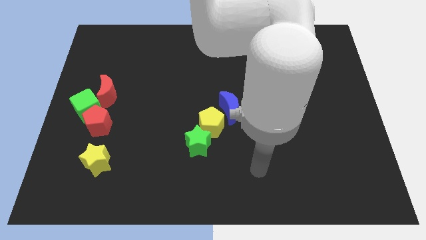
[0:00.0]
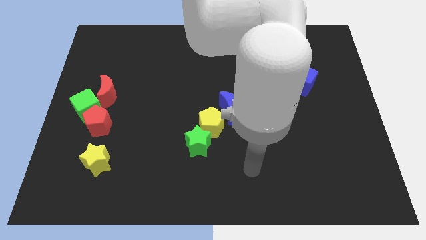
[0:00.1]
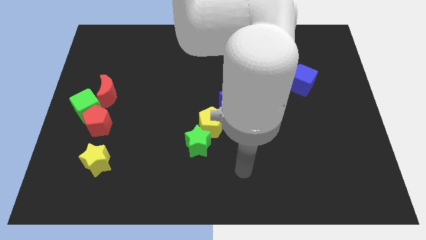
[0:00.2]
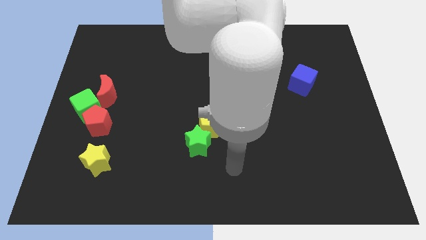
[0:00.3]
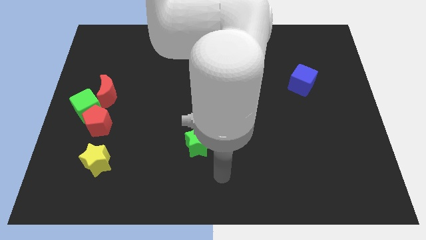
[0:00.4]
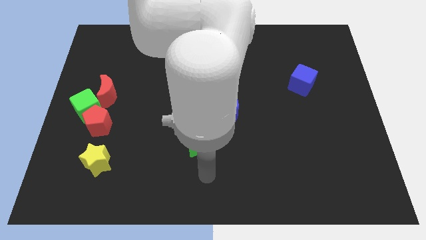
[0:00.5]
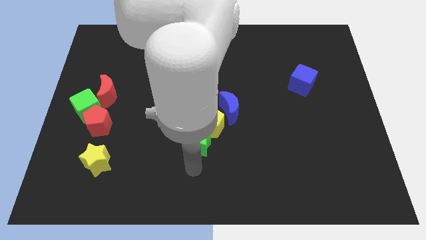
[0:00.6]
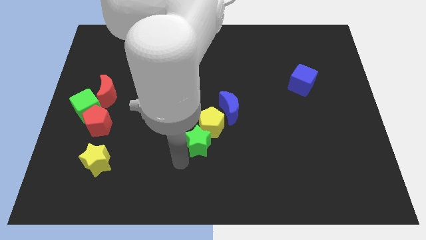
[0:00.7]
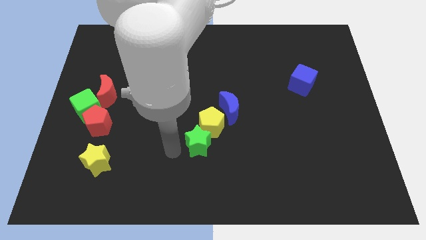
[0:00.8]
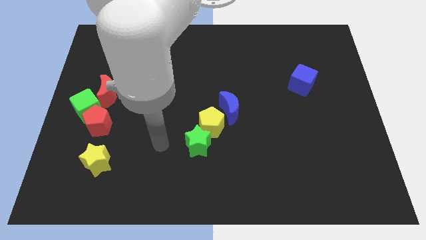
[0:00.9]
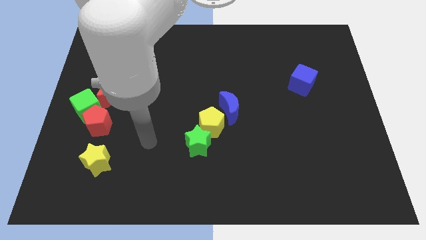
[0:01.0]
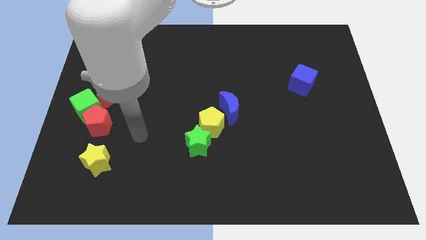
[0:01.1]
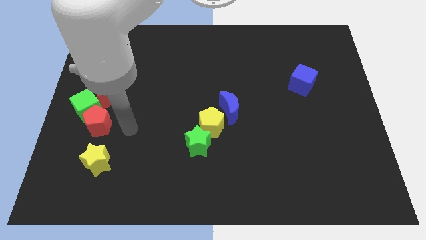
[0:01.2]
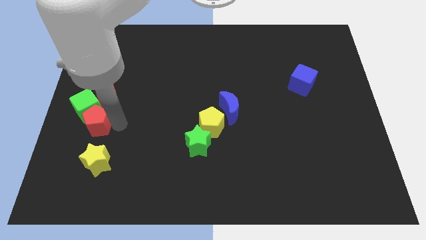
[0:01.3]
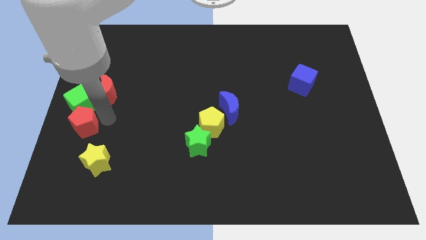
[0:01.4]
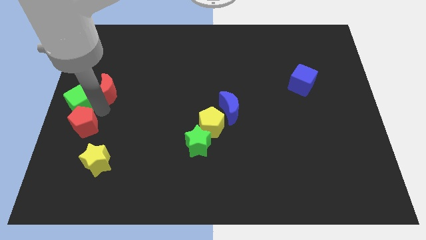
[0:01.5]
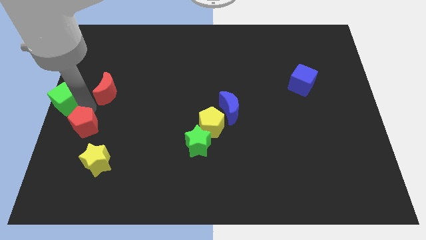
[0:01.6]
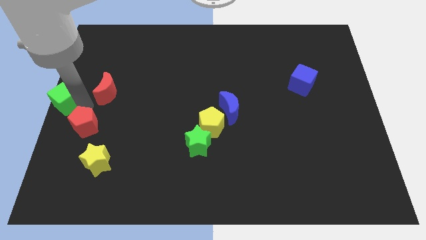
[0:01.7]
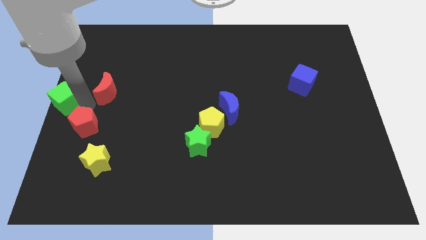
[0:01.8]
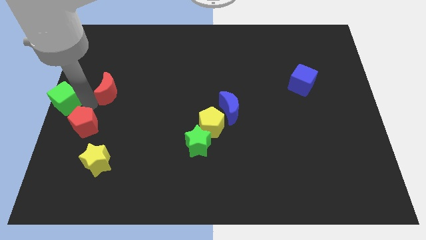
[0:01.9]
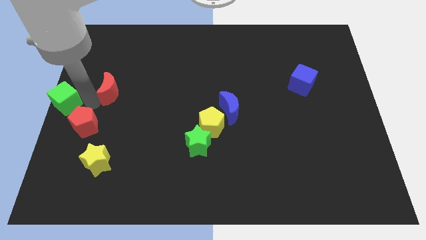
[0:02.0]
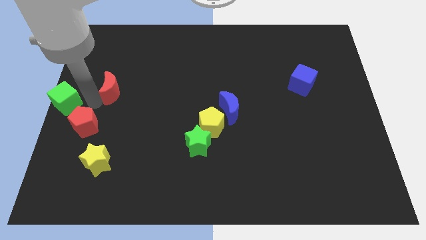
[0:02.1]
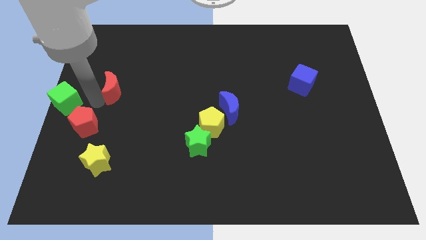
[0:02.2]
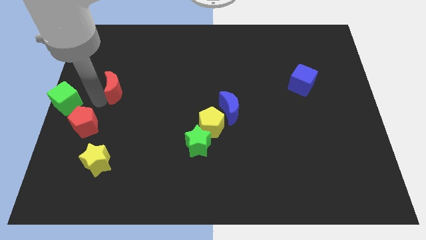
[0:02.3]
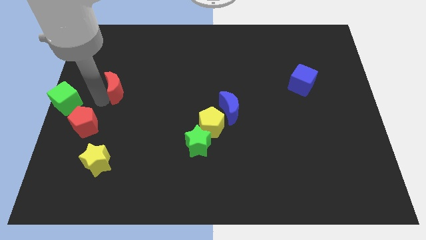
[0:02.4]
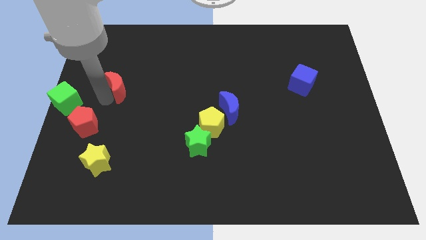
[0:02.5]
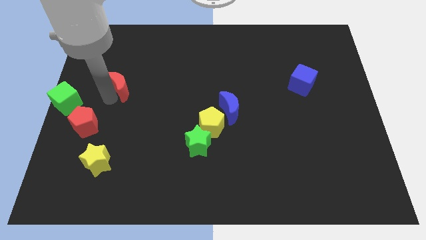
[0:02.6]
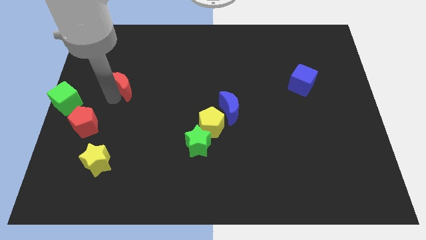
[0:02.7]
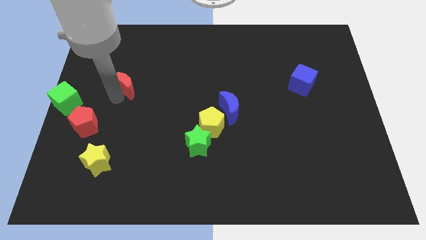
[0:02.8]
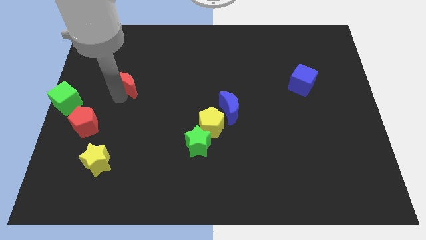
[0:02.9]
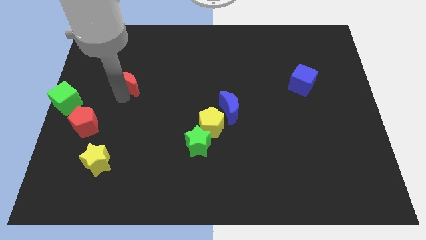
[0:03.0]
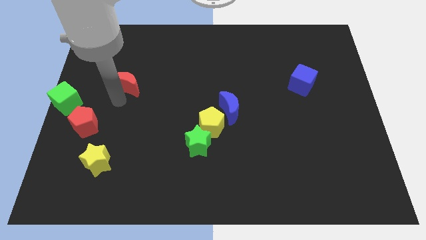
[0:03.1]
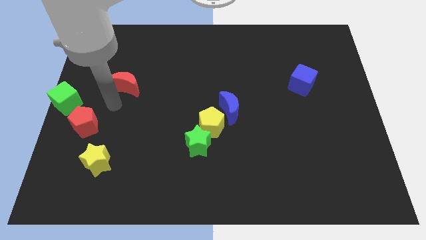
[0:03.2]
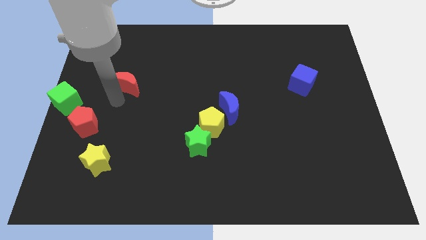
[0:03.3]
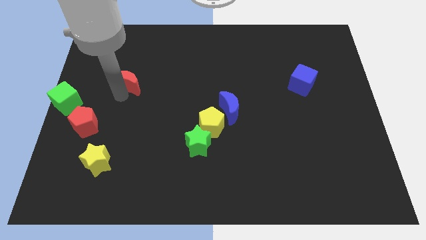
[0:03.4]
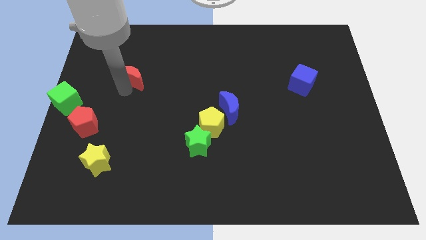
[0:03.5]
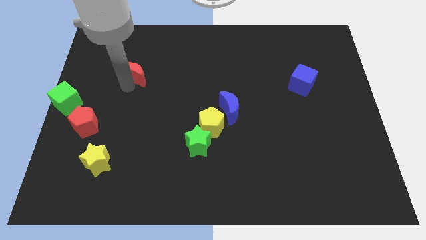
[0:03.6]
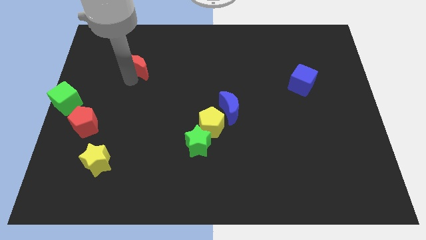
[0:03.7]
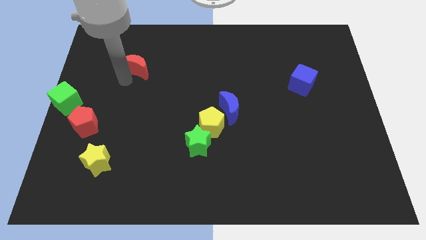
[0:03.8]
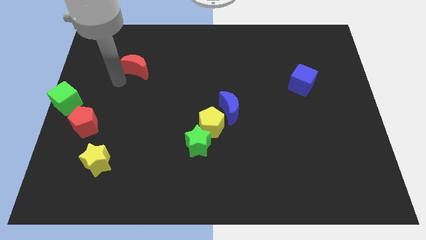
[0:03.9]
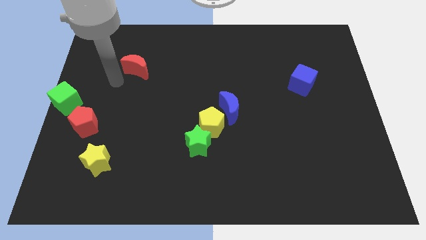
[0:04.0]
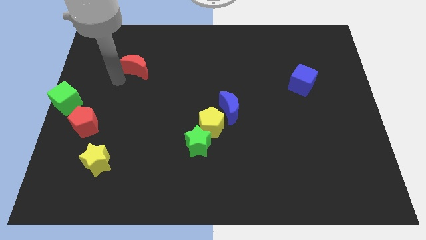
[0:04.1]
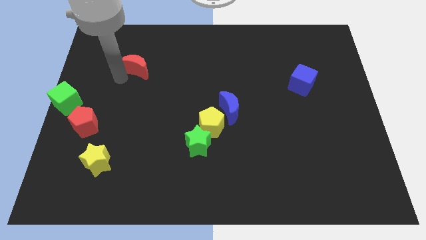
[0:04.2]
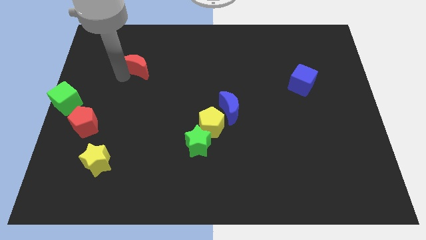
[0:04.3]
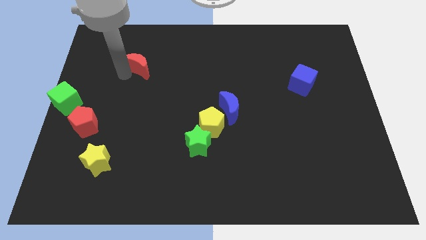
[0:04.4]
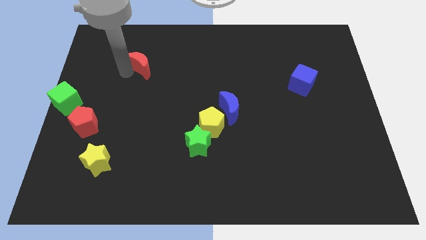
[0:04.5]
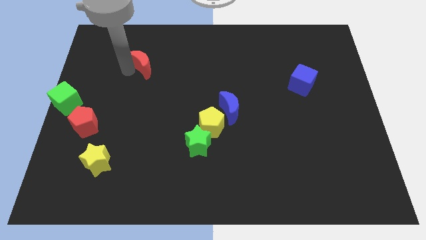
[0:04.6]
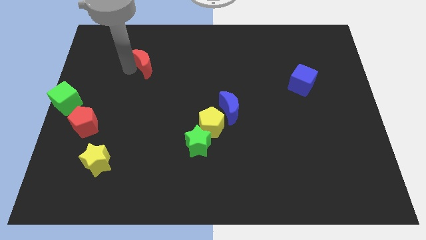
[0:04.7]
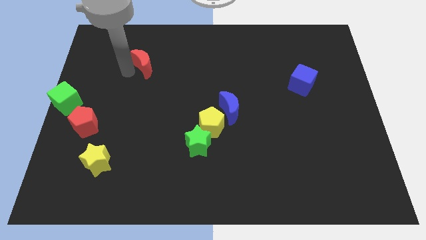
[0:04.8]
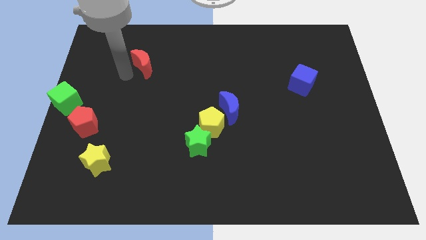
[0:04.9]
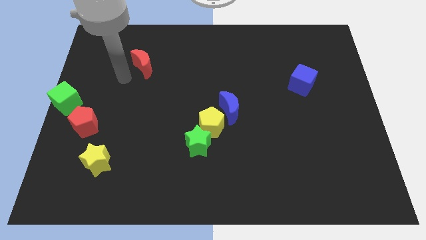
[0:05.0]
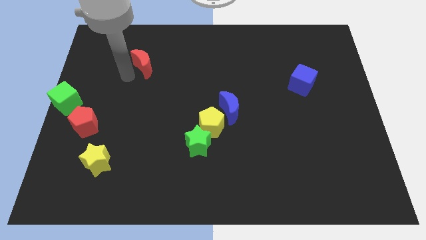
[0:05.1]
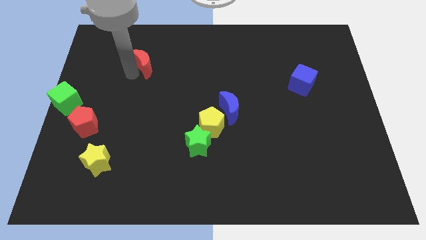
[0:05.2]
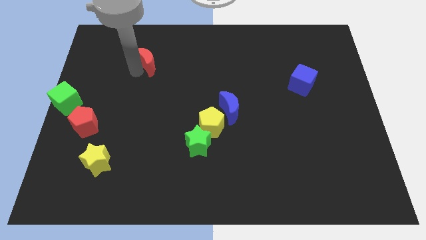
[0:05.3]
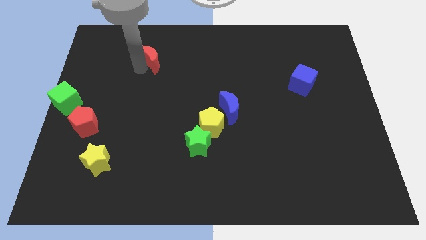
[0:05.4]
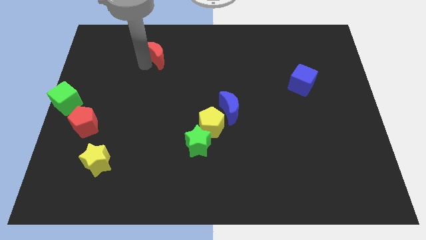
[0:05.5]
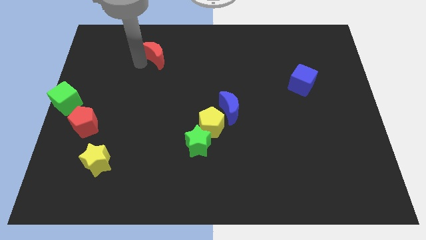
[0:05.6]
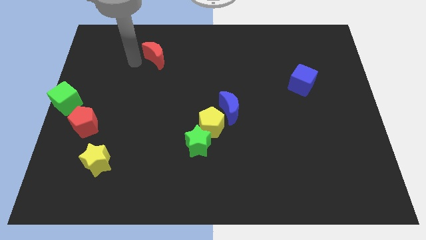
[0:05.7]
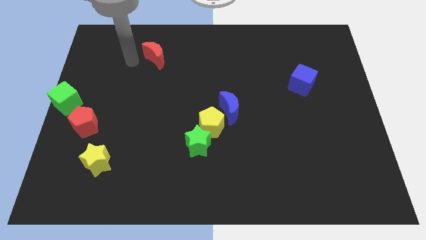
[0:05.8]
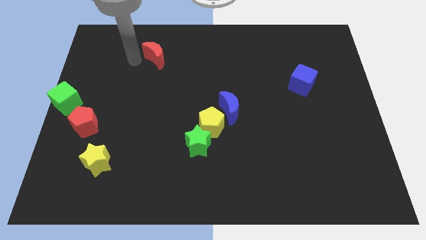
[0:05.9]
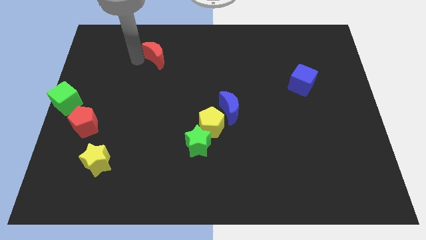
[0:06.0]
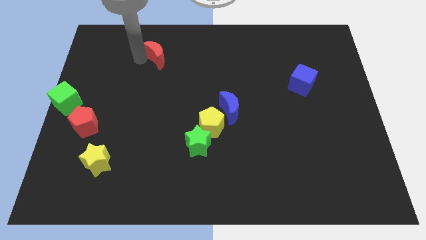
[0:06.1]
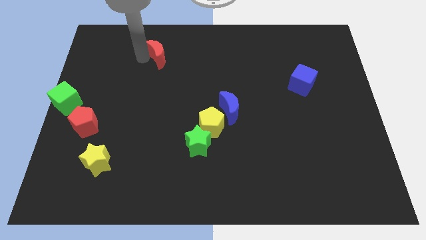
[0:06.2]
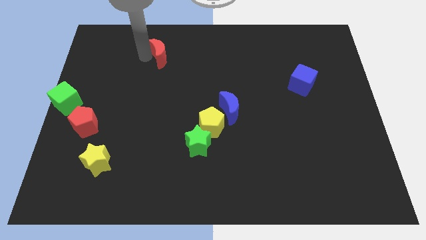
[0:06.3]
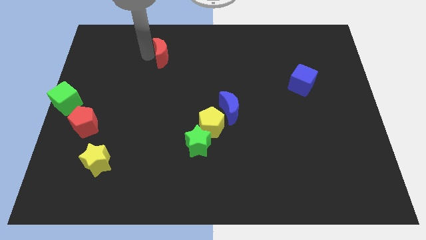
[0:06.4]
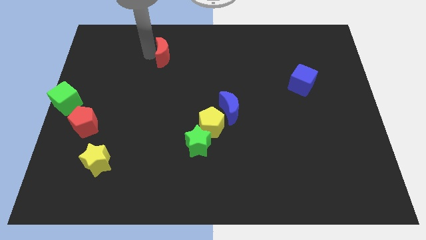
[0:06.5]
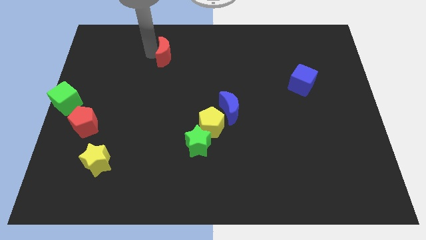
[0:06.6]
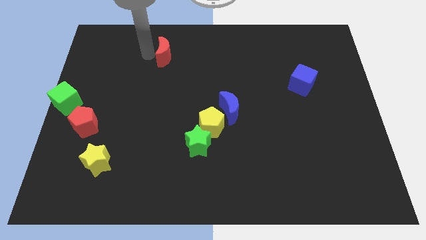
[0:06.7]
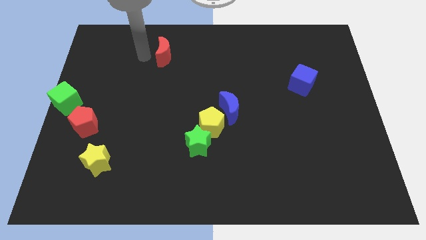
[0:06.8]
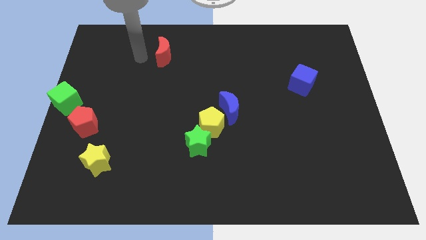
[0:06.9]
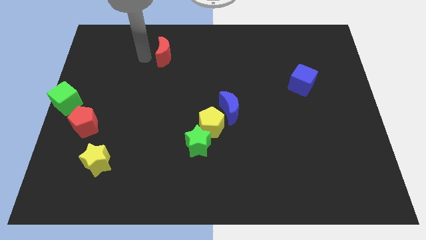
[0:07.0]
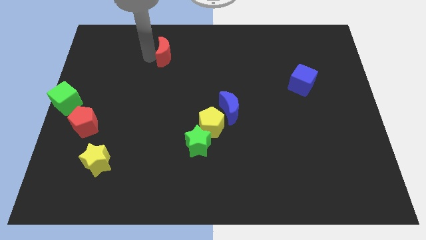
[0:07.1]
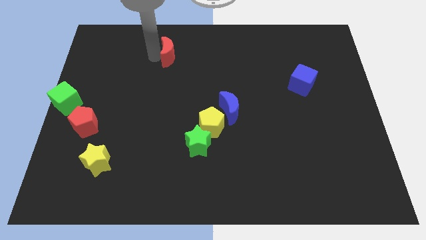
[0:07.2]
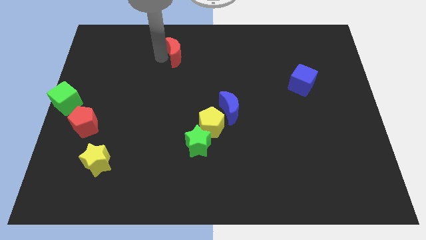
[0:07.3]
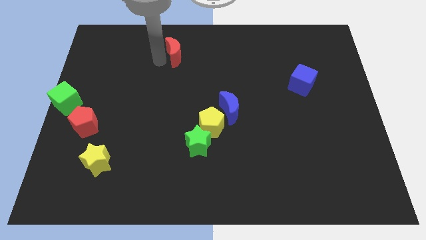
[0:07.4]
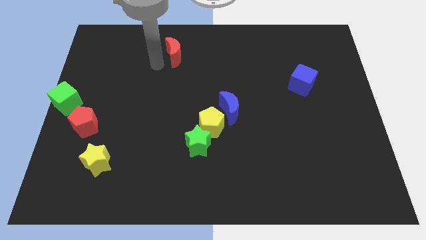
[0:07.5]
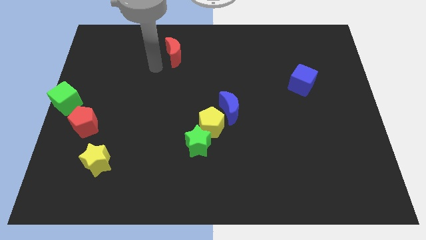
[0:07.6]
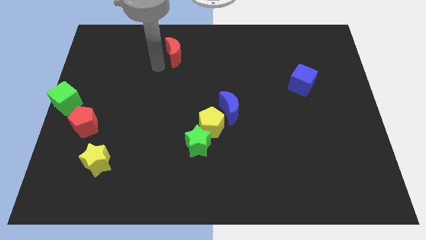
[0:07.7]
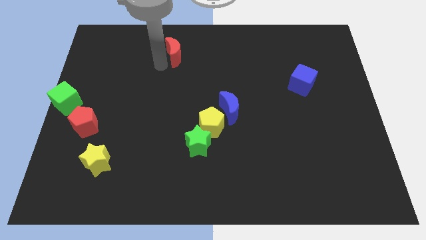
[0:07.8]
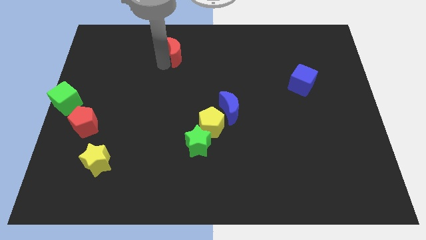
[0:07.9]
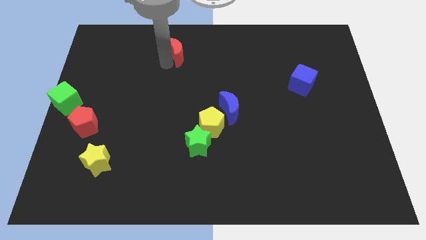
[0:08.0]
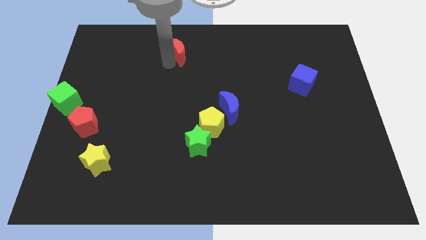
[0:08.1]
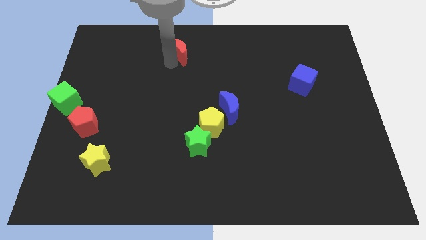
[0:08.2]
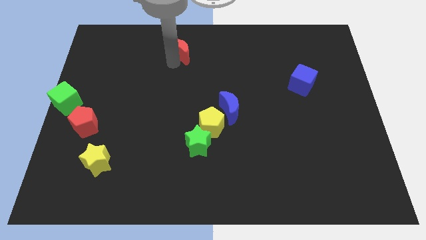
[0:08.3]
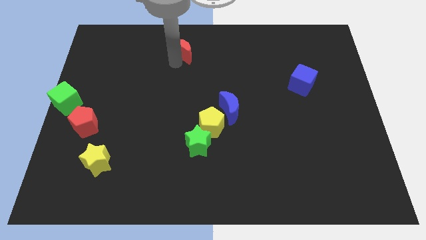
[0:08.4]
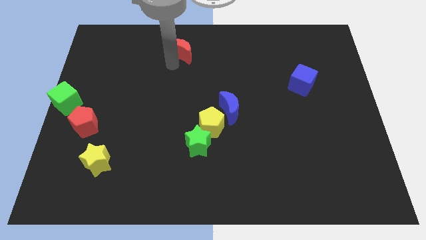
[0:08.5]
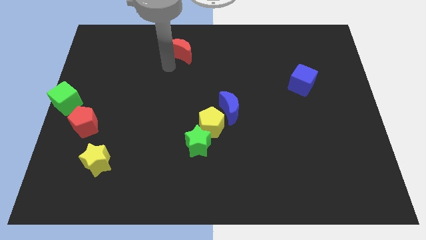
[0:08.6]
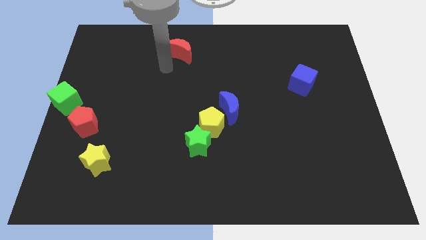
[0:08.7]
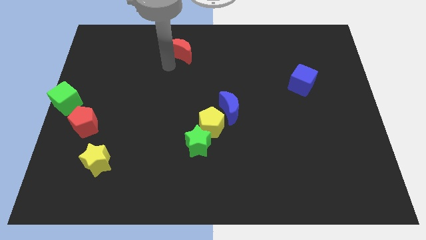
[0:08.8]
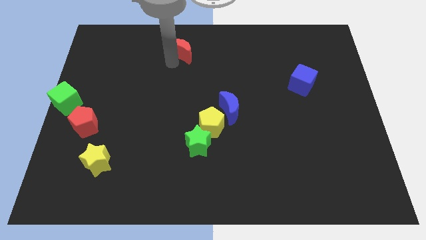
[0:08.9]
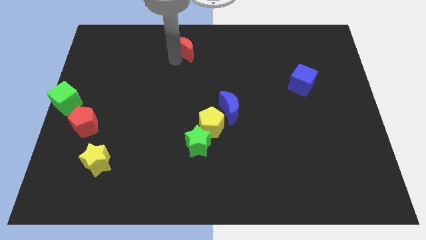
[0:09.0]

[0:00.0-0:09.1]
put the red moon to the top side
